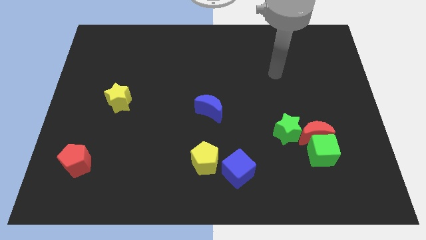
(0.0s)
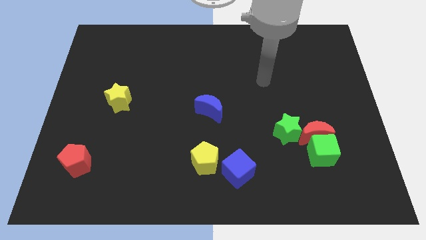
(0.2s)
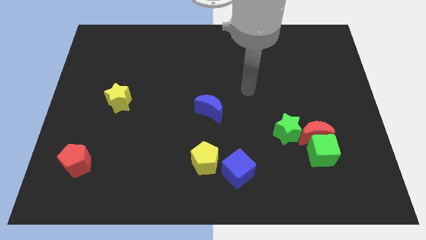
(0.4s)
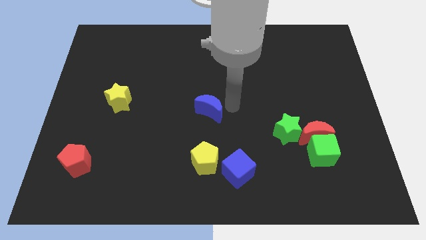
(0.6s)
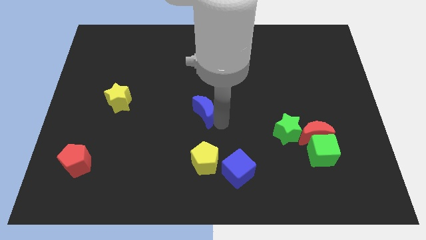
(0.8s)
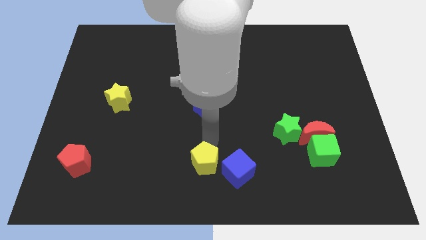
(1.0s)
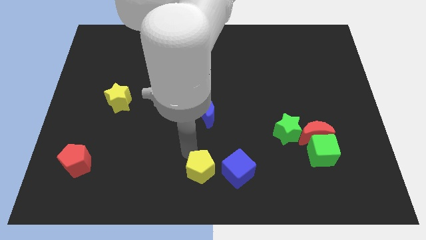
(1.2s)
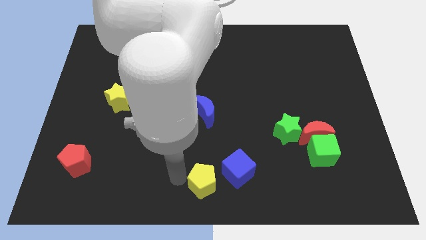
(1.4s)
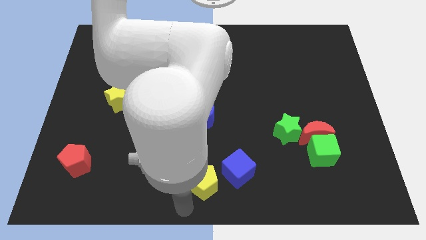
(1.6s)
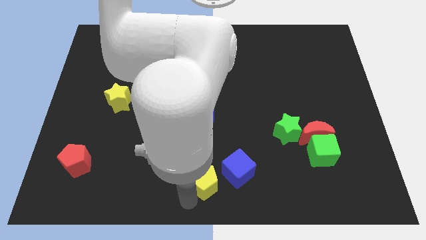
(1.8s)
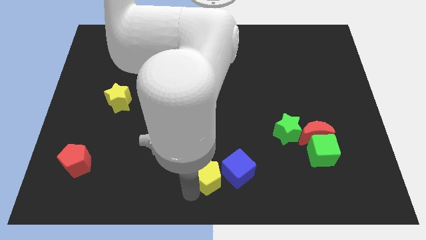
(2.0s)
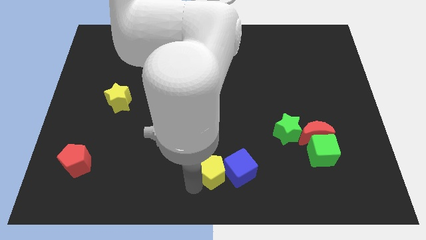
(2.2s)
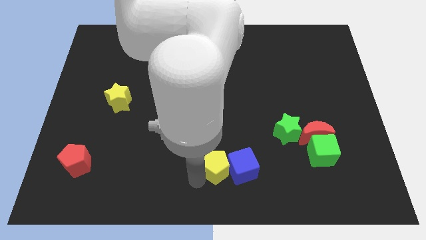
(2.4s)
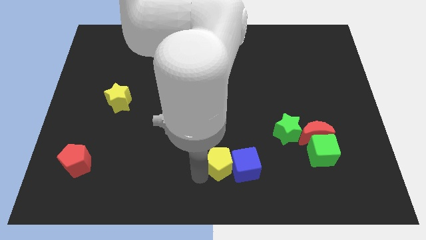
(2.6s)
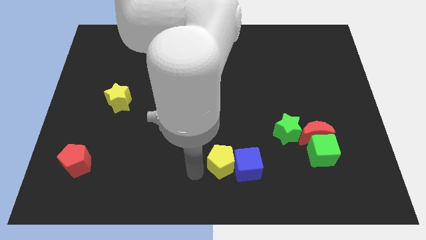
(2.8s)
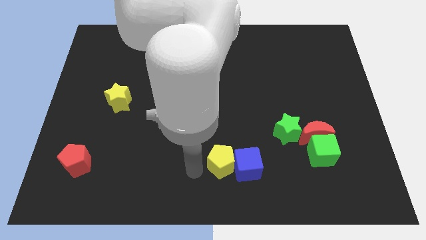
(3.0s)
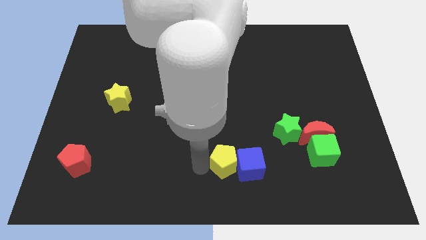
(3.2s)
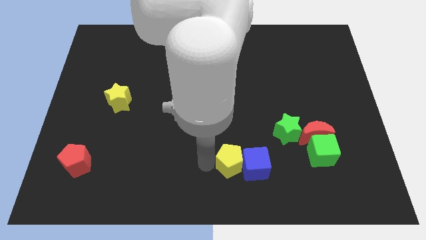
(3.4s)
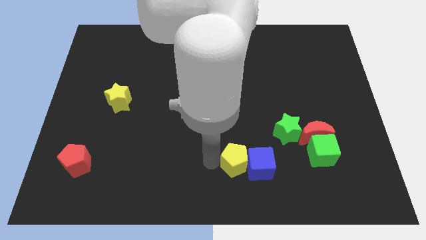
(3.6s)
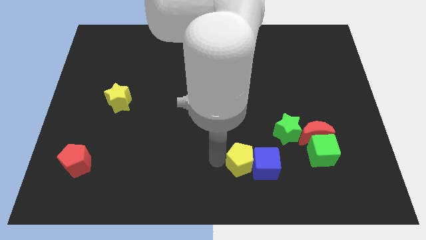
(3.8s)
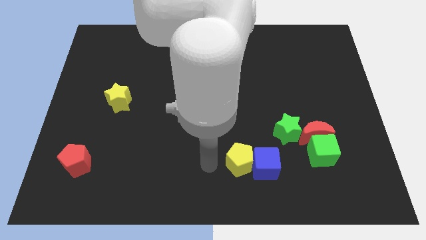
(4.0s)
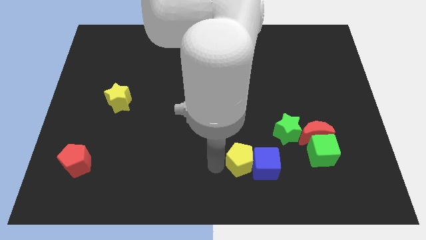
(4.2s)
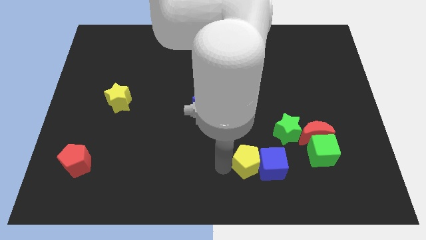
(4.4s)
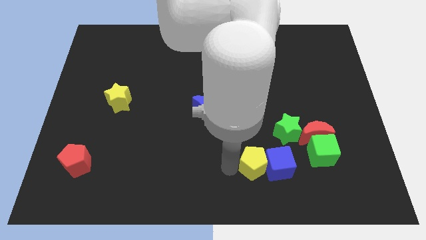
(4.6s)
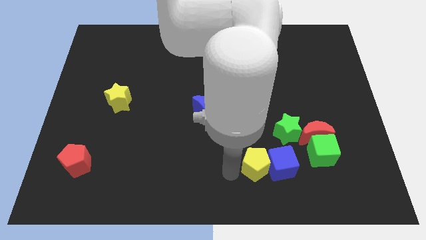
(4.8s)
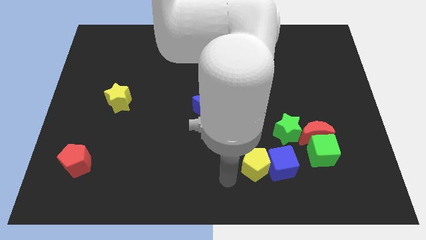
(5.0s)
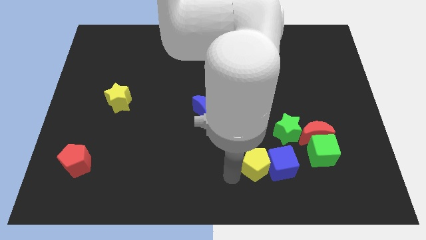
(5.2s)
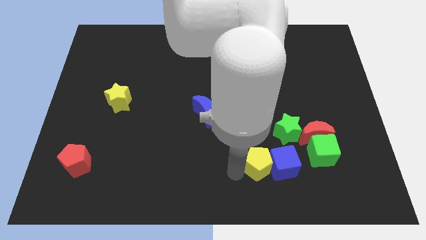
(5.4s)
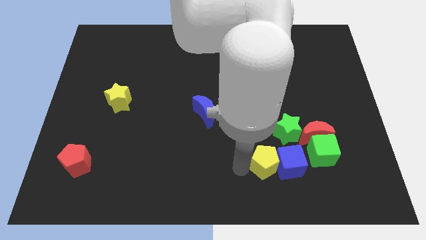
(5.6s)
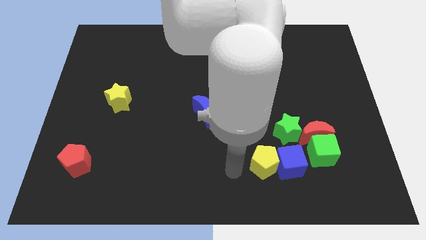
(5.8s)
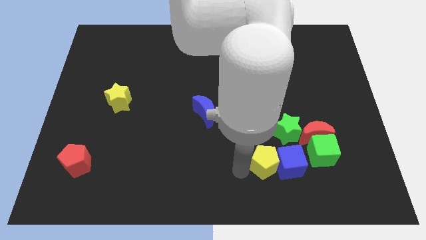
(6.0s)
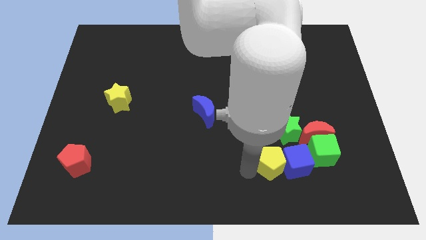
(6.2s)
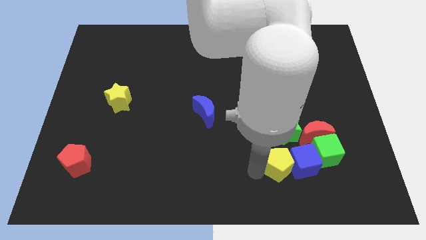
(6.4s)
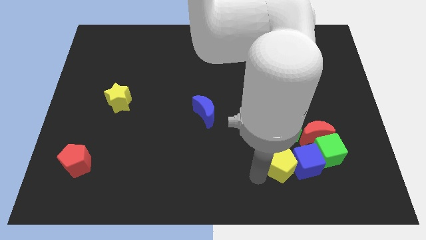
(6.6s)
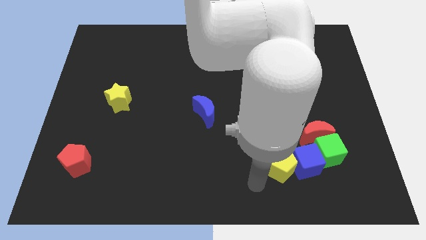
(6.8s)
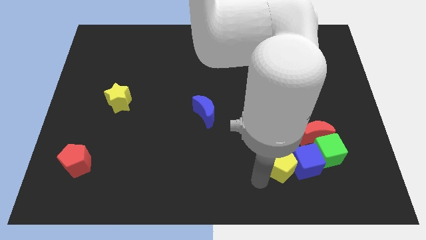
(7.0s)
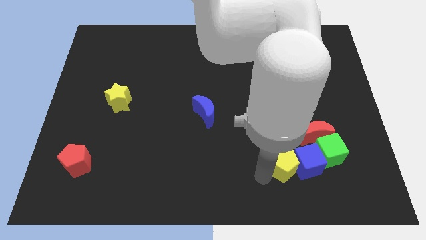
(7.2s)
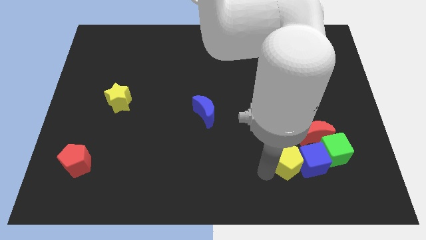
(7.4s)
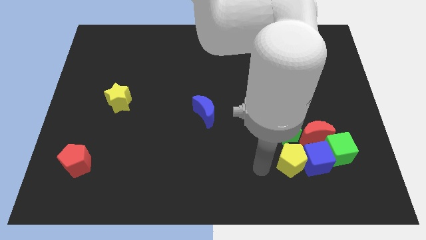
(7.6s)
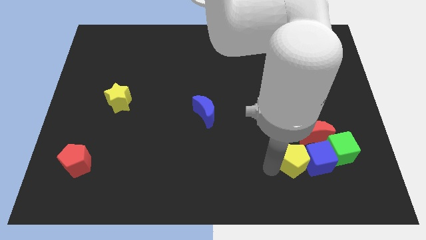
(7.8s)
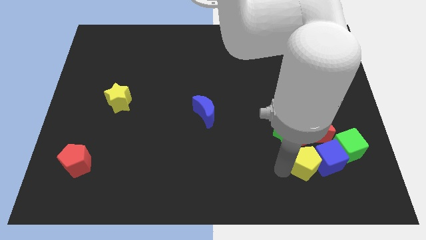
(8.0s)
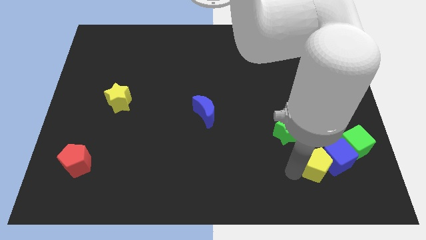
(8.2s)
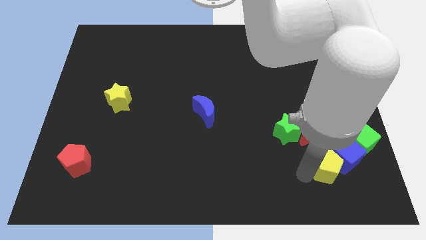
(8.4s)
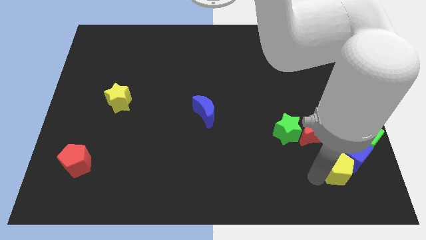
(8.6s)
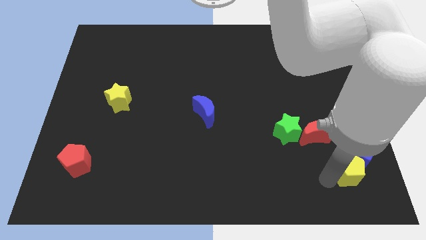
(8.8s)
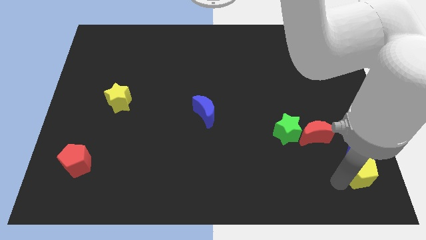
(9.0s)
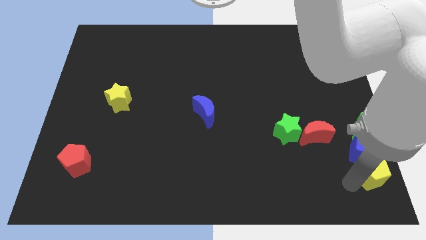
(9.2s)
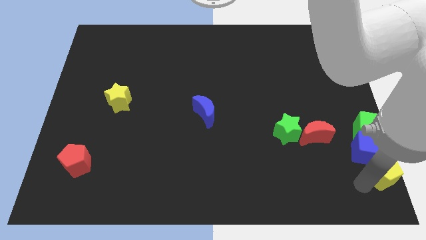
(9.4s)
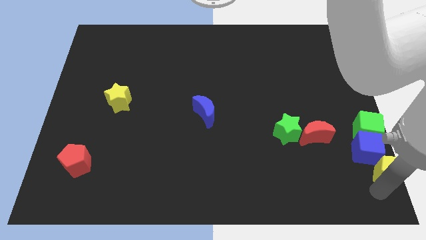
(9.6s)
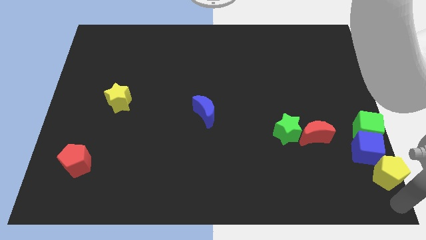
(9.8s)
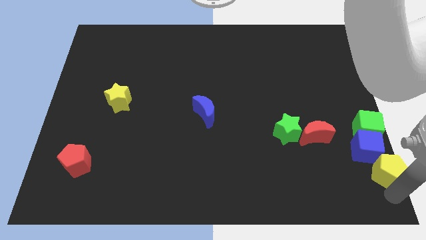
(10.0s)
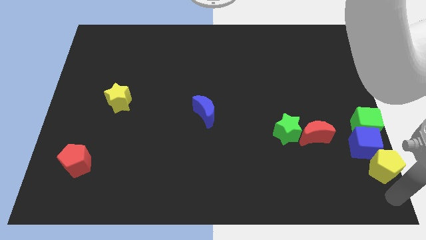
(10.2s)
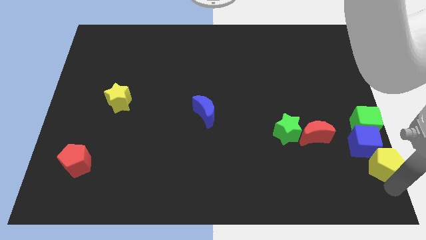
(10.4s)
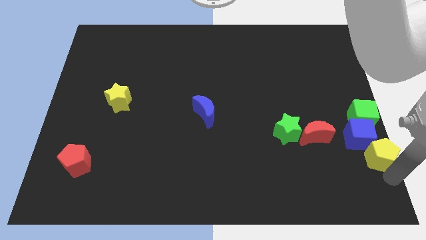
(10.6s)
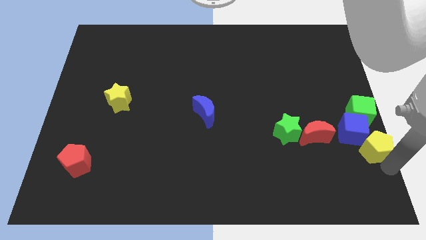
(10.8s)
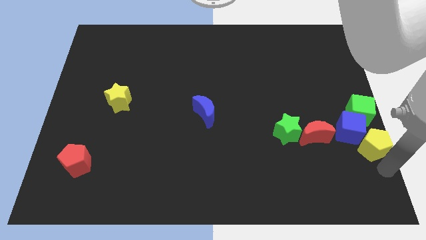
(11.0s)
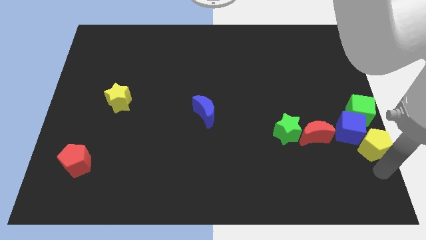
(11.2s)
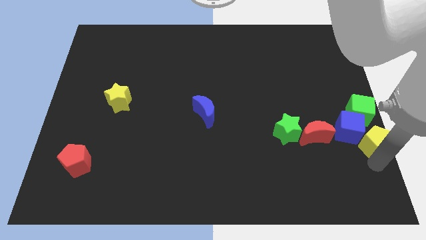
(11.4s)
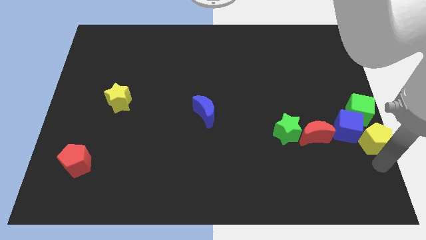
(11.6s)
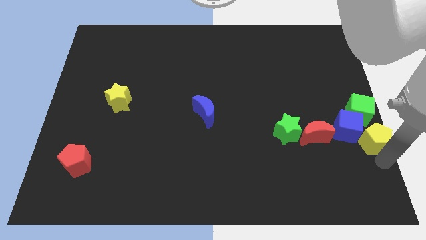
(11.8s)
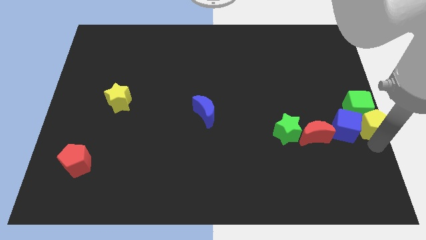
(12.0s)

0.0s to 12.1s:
move the yellow pentagon to the green cube

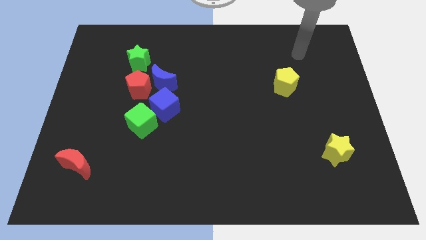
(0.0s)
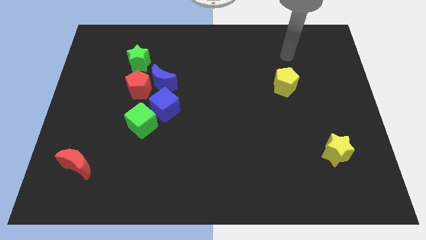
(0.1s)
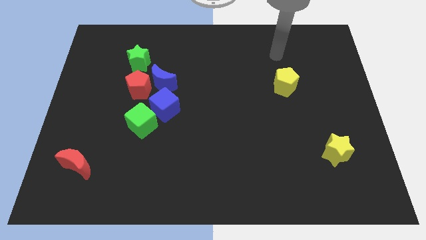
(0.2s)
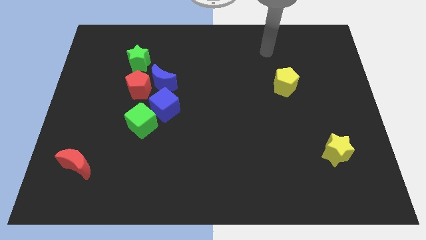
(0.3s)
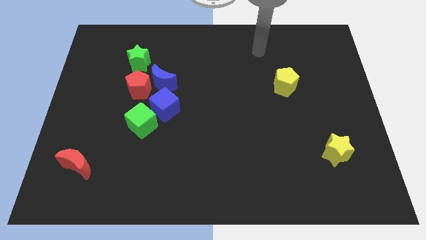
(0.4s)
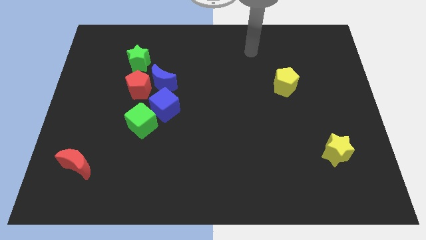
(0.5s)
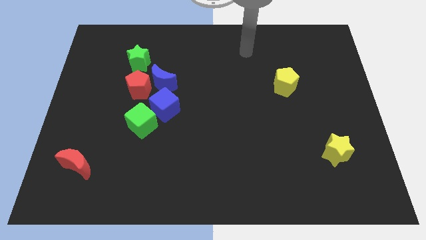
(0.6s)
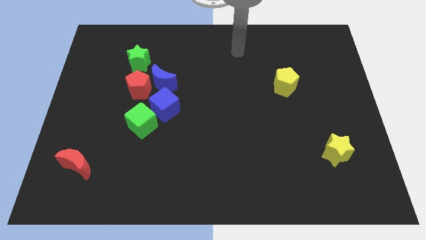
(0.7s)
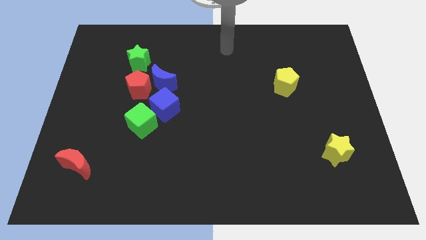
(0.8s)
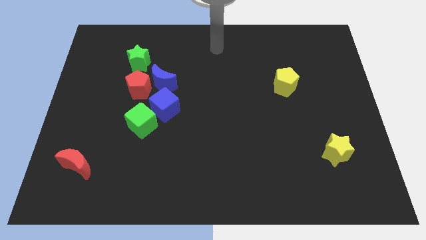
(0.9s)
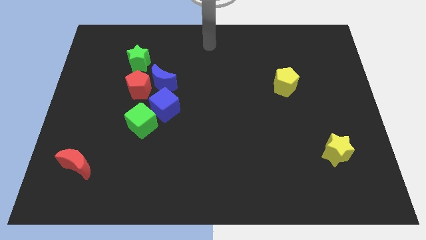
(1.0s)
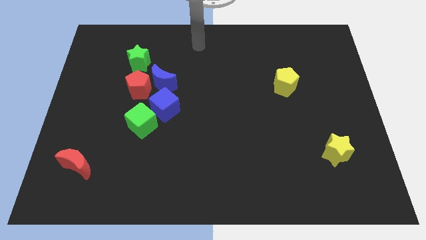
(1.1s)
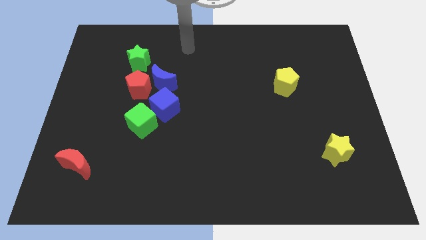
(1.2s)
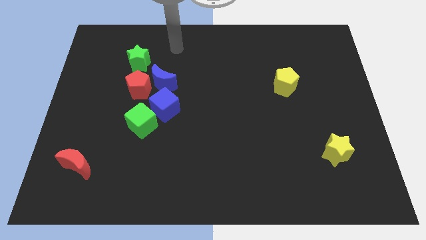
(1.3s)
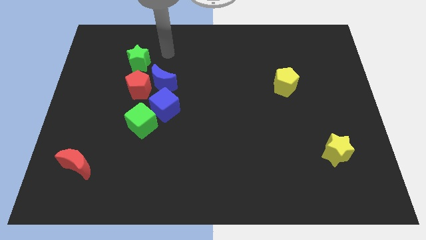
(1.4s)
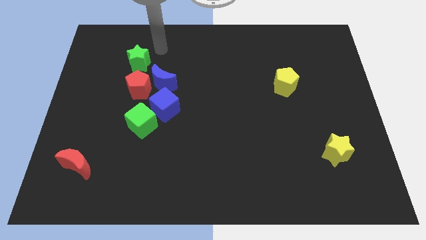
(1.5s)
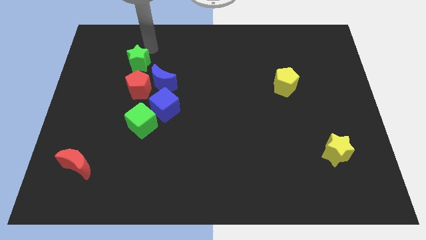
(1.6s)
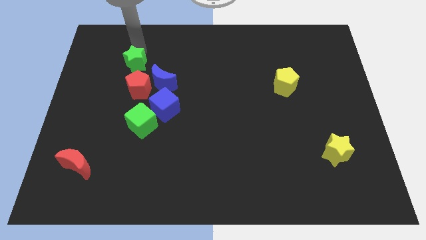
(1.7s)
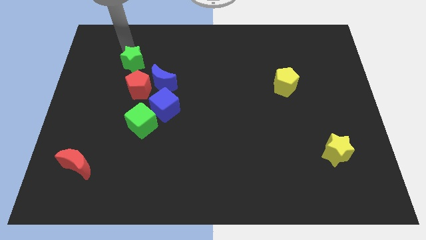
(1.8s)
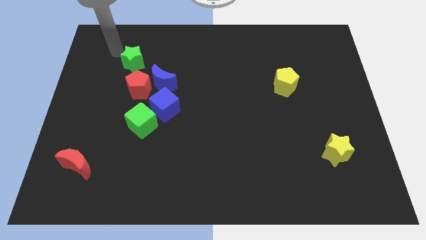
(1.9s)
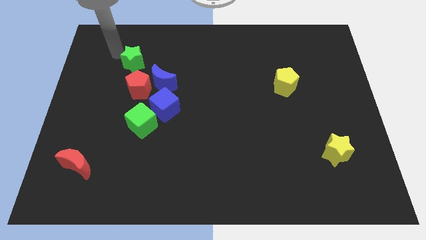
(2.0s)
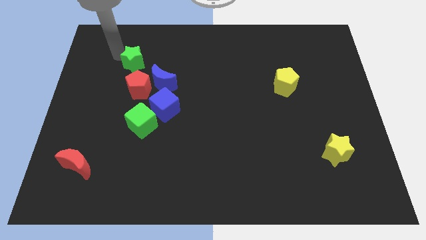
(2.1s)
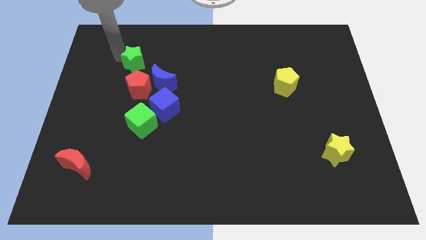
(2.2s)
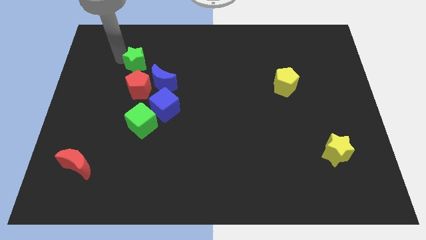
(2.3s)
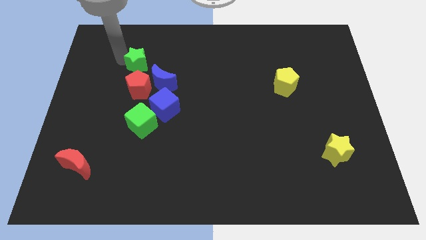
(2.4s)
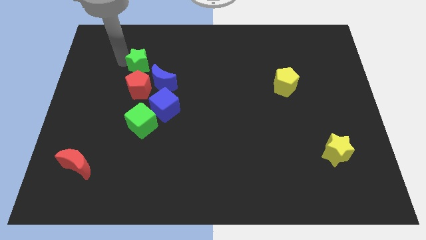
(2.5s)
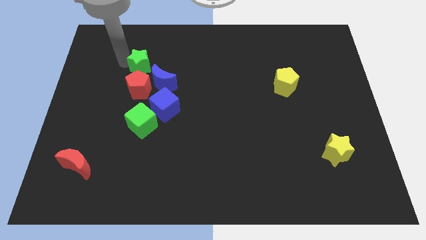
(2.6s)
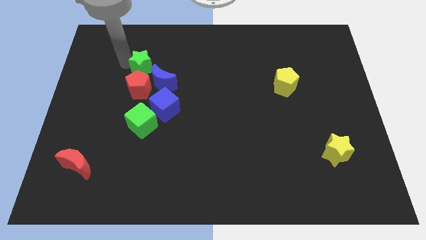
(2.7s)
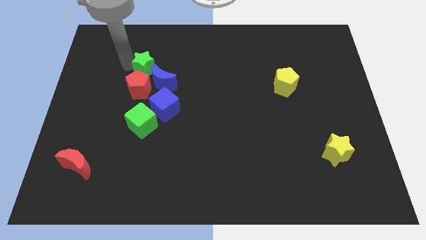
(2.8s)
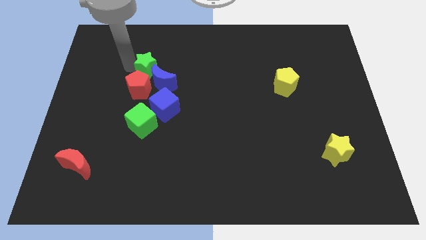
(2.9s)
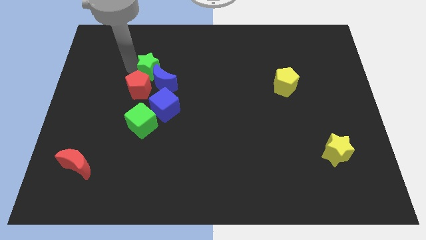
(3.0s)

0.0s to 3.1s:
put the green star to the blue moon
